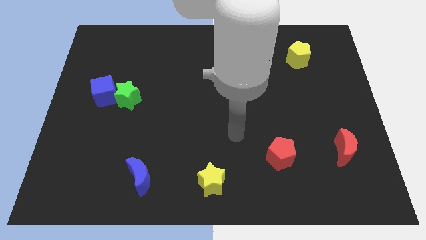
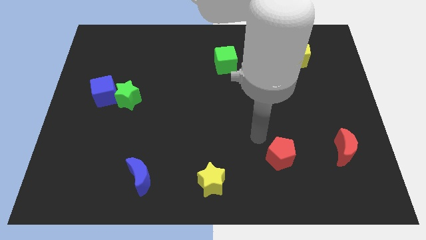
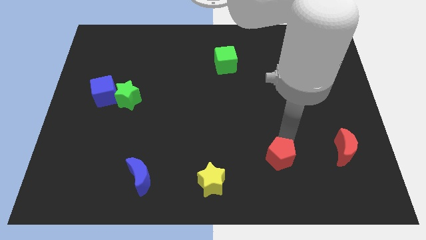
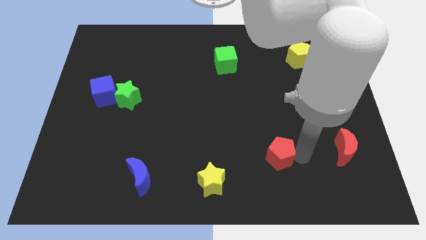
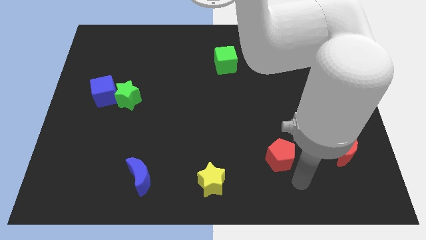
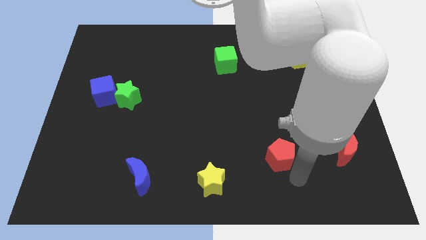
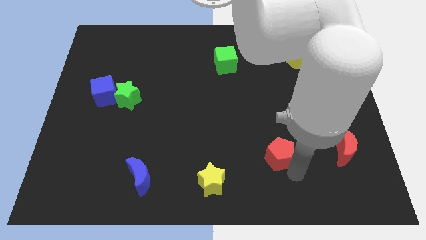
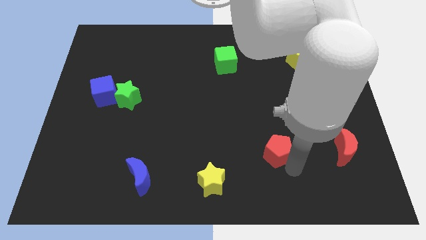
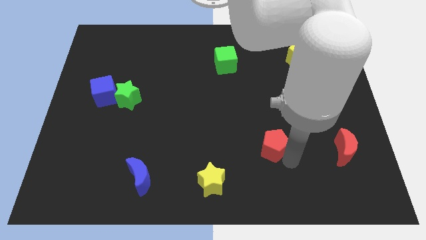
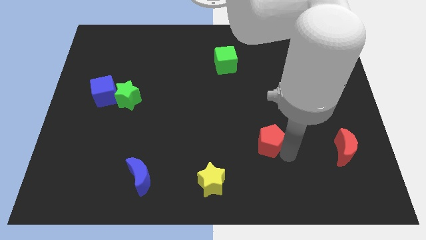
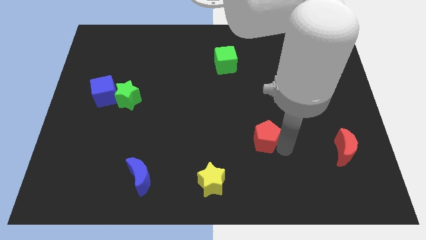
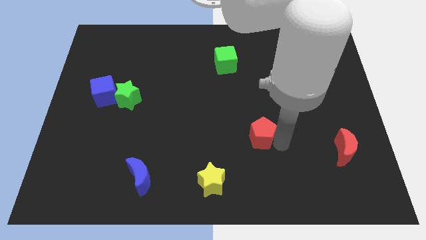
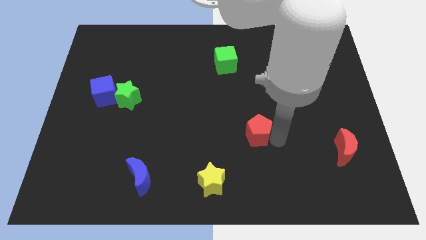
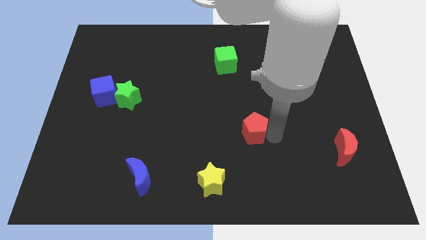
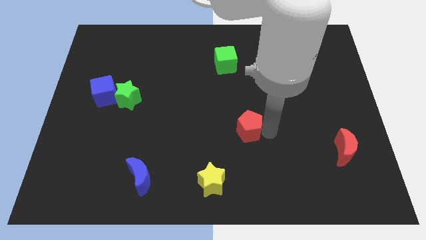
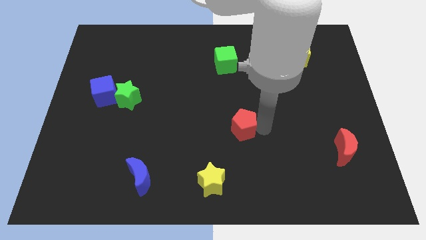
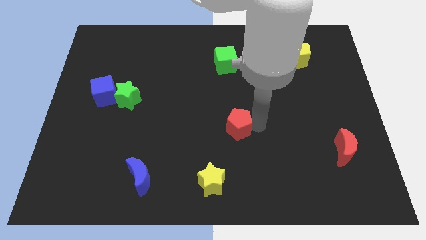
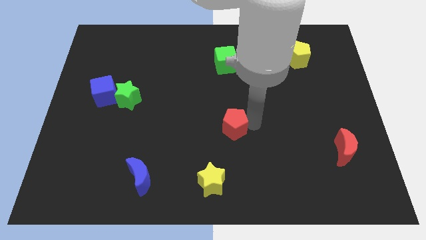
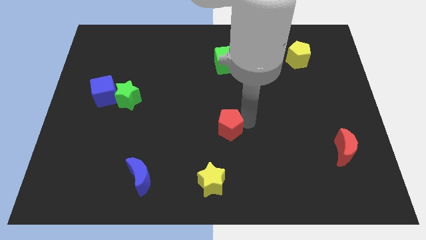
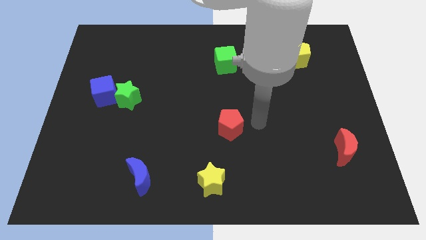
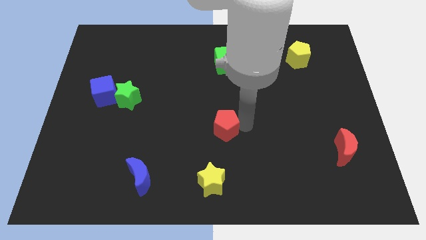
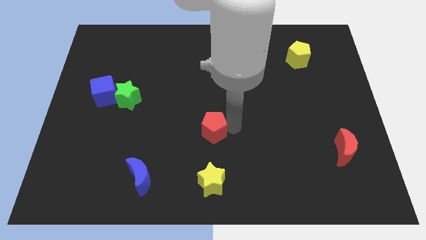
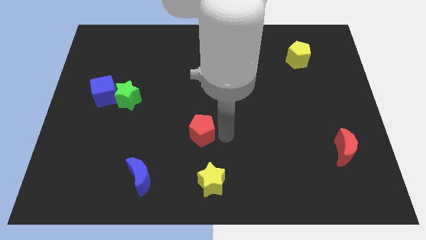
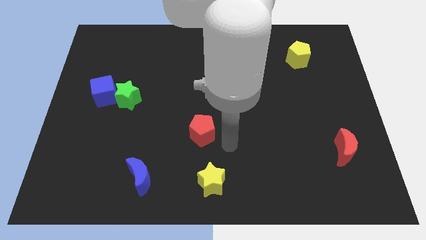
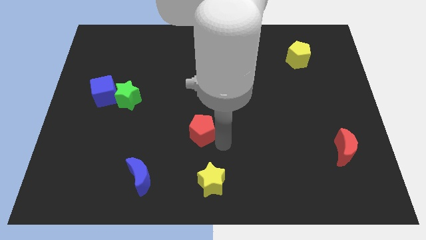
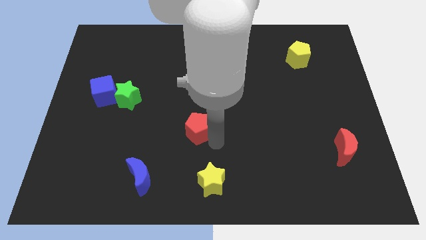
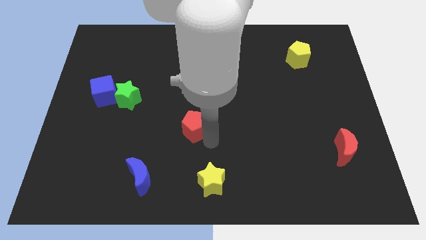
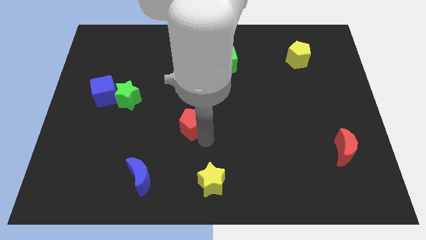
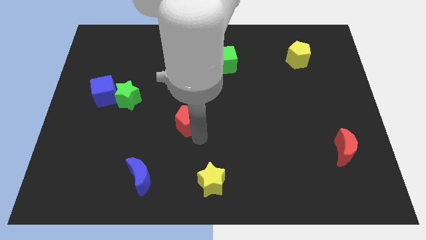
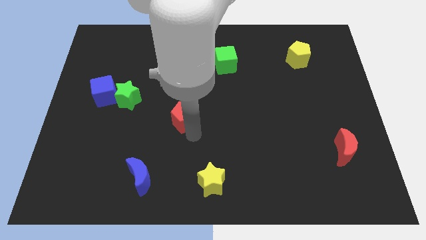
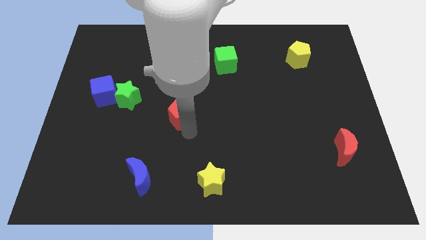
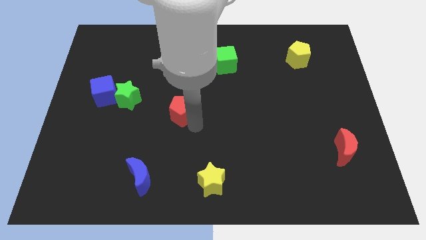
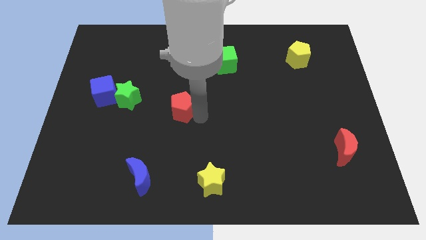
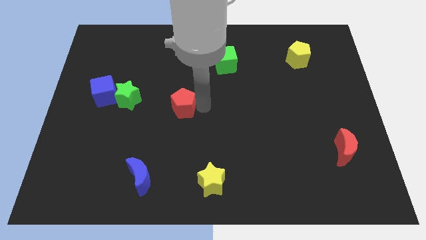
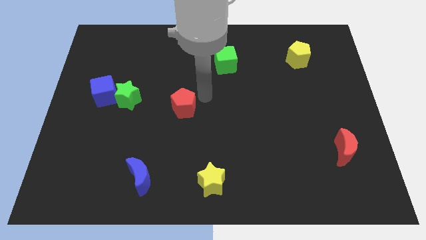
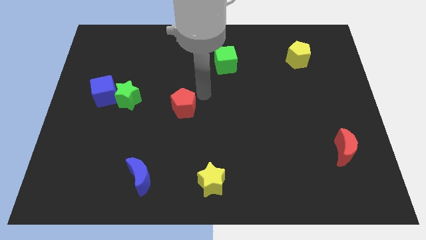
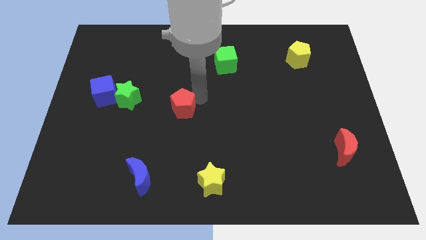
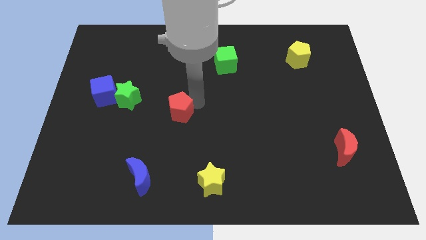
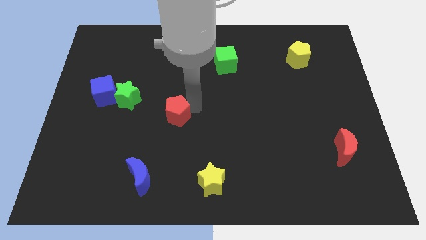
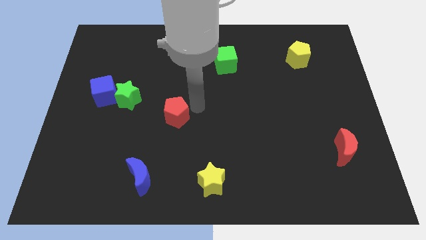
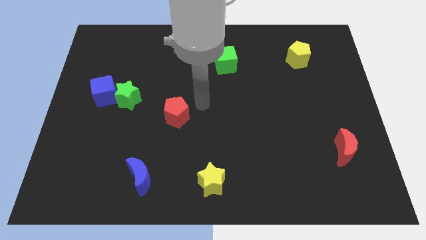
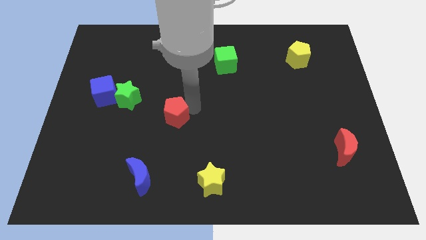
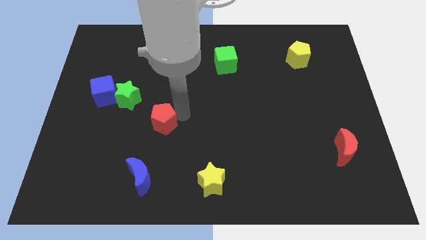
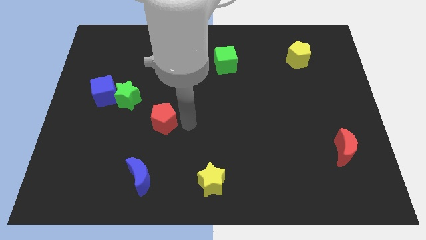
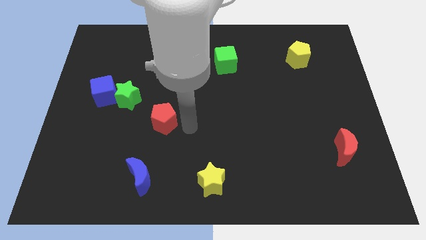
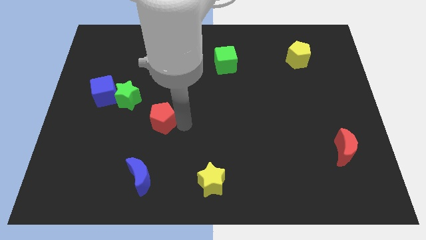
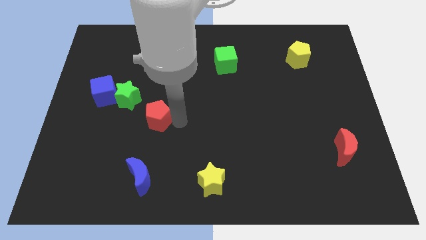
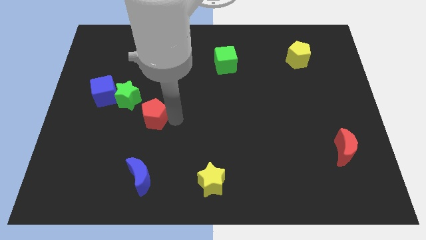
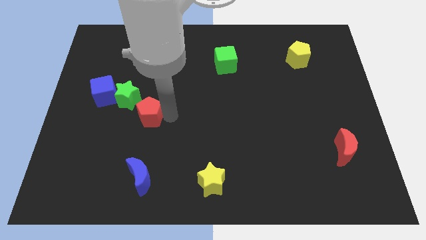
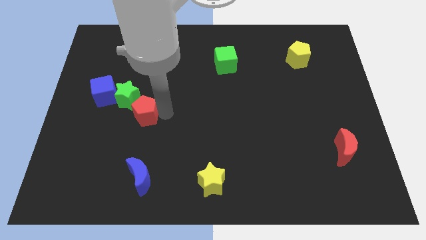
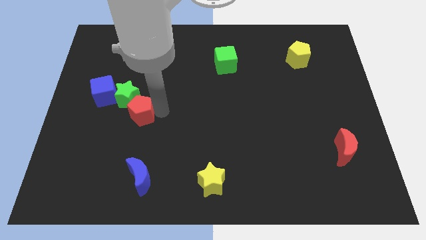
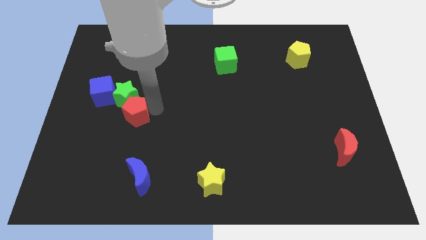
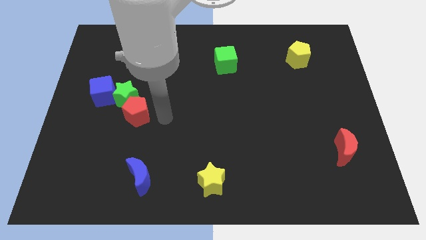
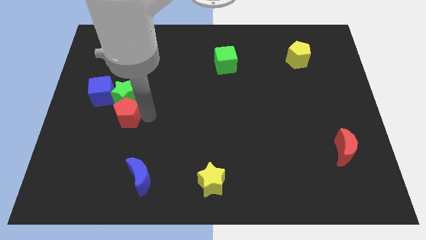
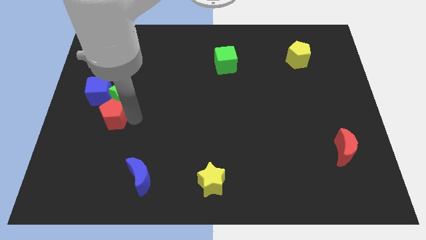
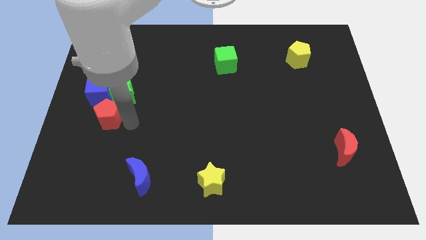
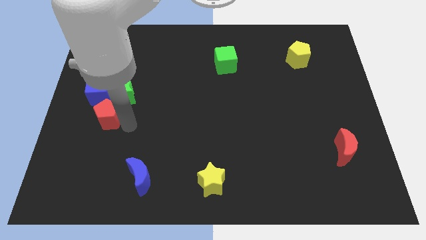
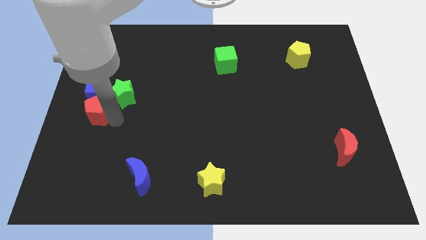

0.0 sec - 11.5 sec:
slide the red pentagon to the left side

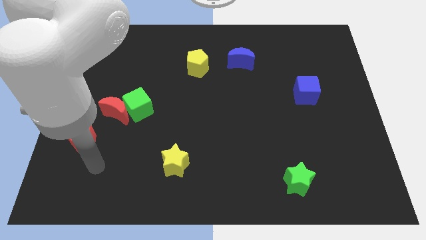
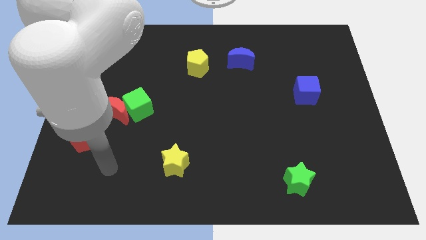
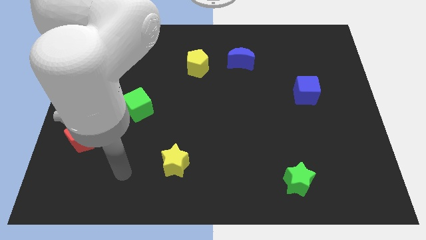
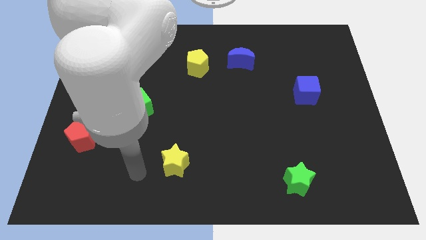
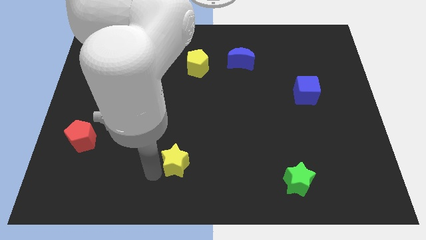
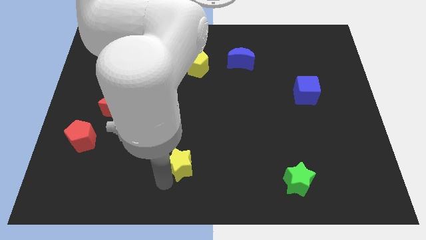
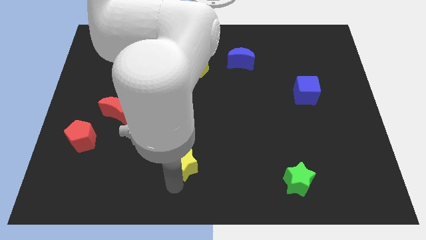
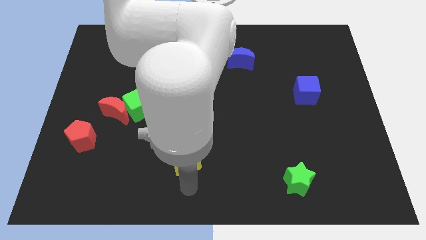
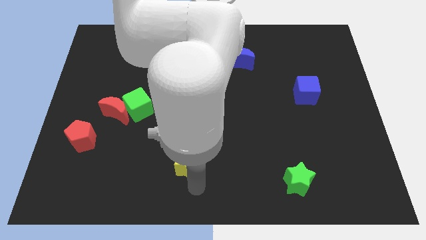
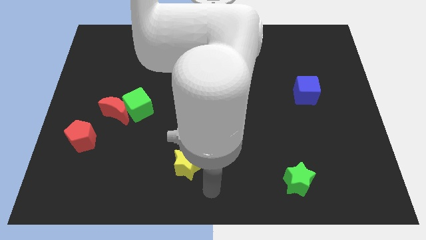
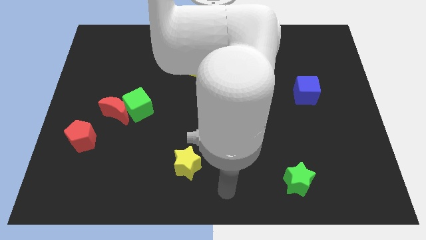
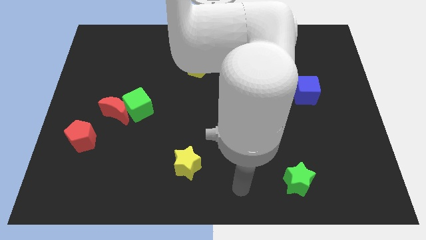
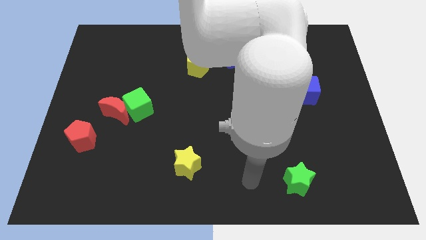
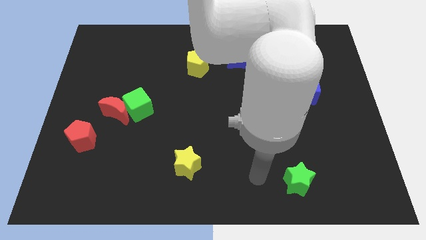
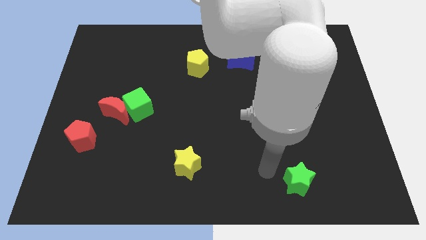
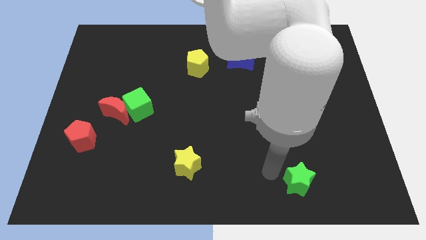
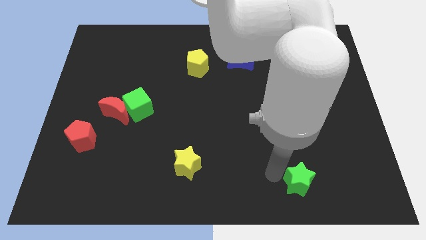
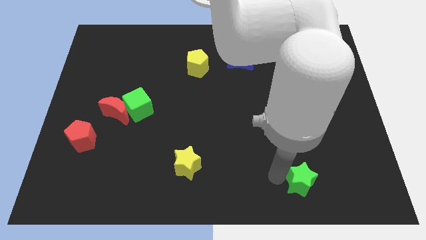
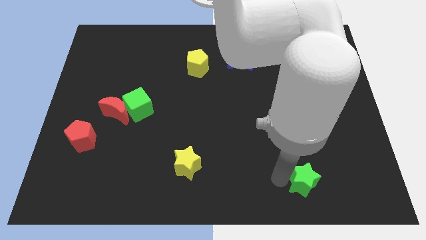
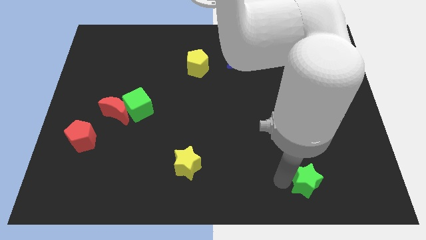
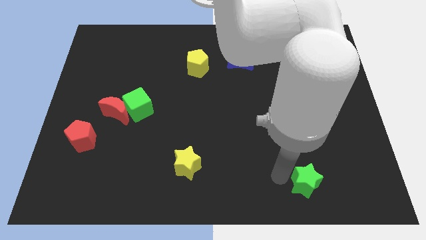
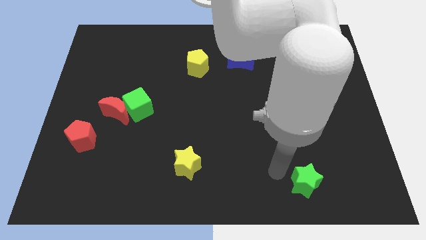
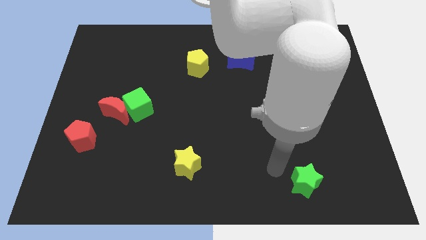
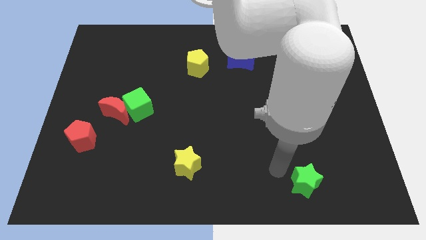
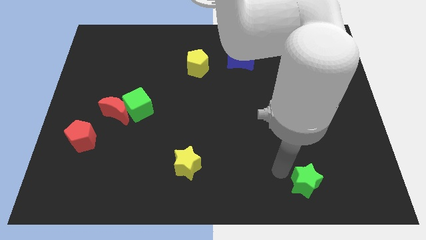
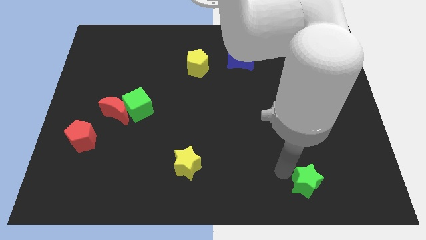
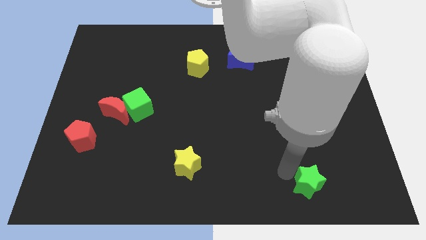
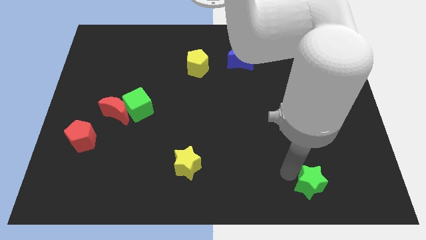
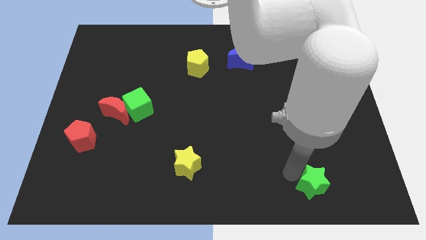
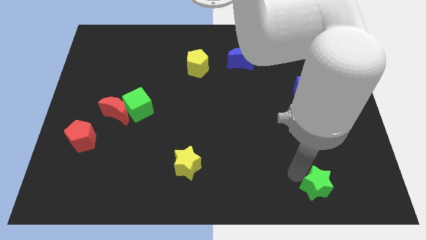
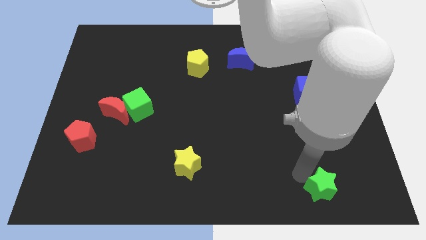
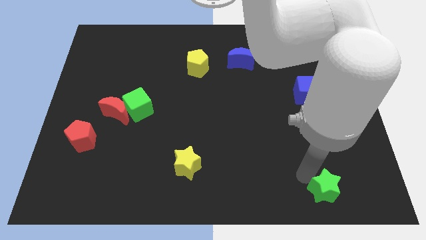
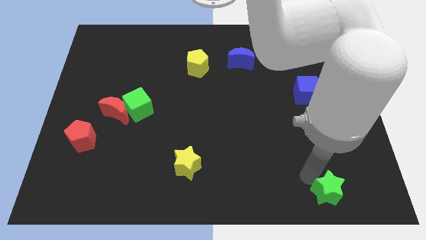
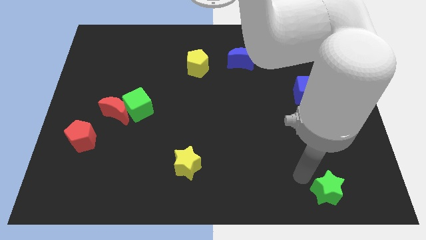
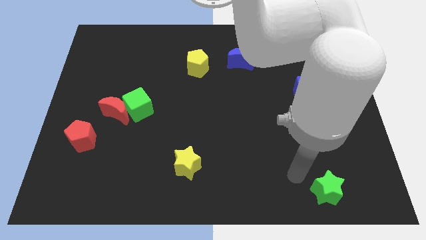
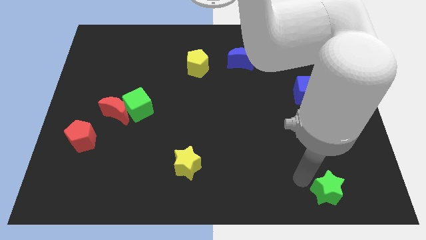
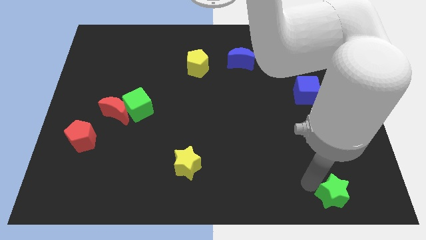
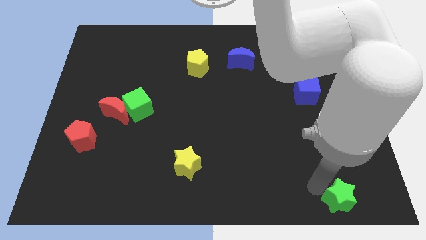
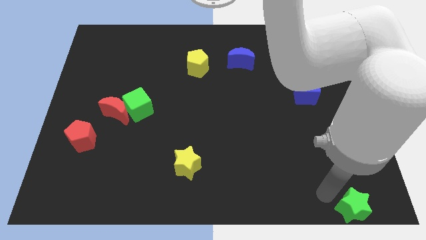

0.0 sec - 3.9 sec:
move the green star to the bottom right
